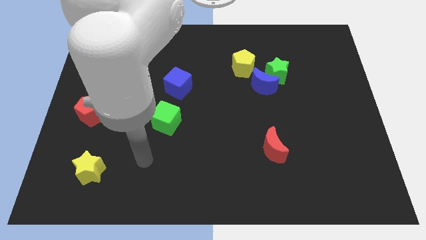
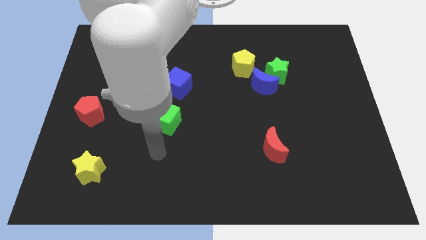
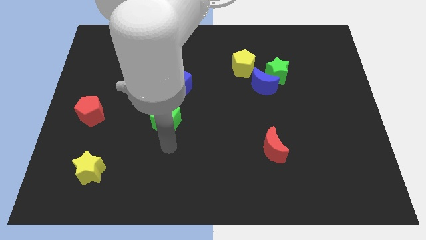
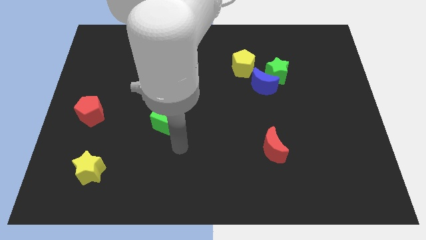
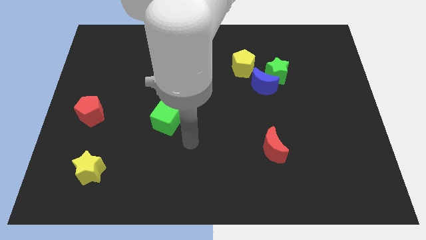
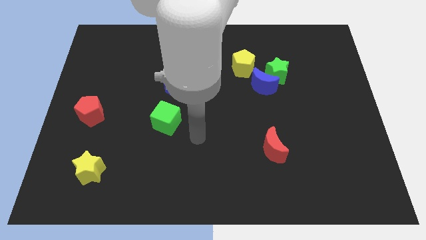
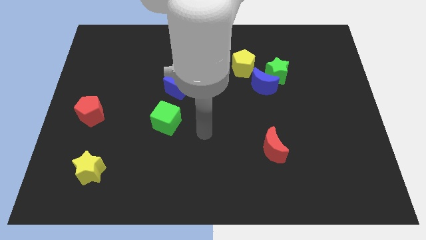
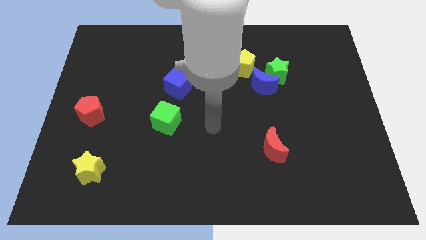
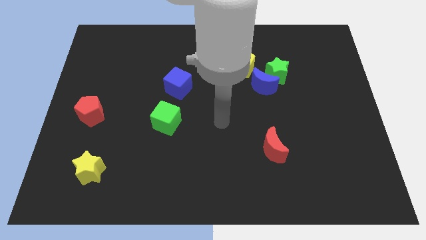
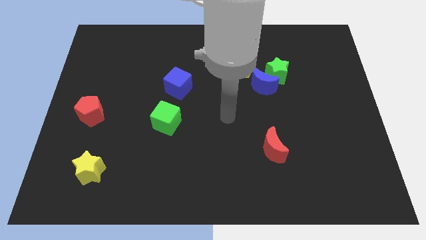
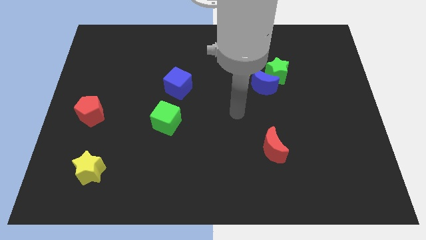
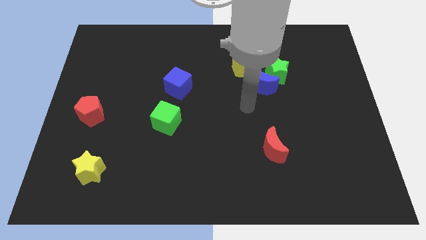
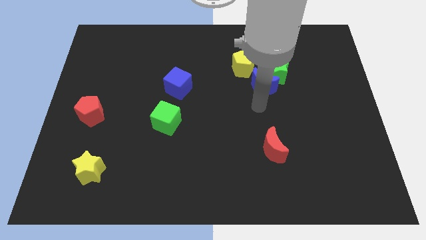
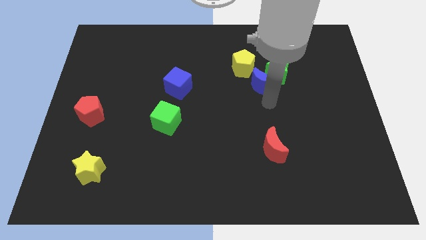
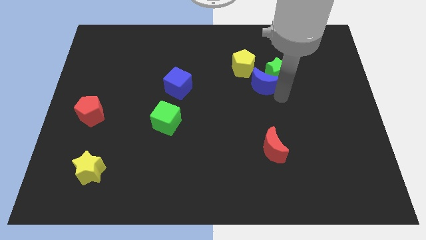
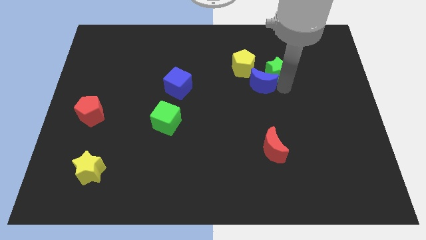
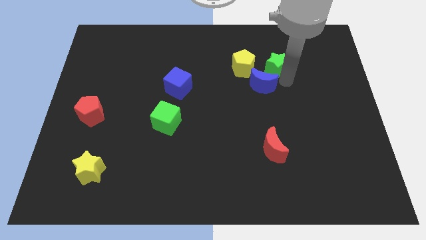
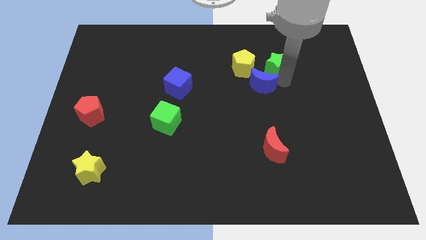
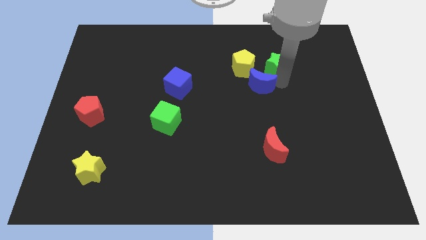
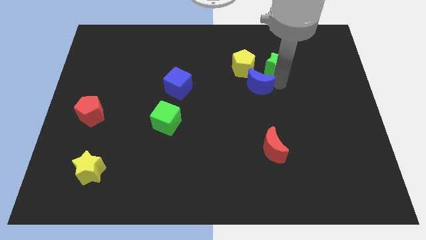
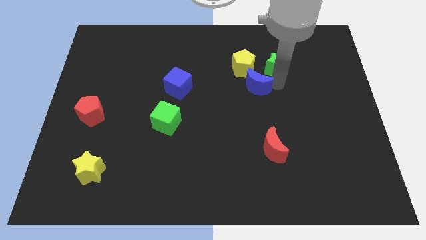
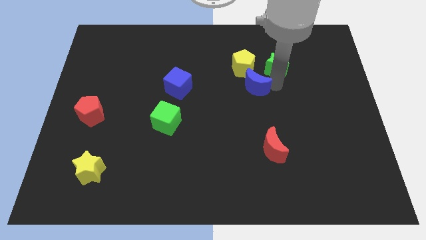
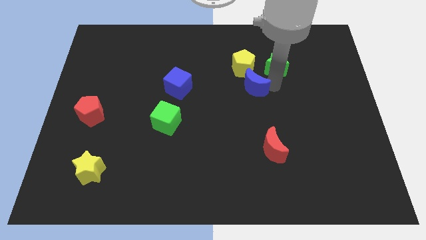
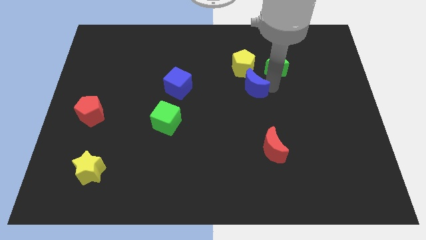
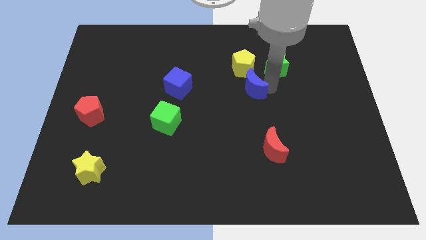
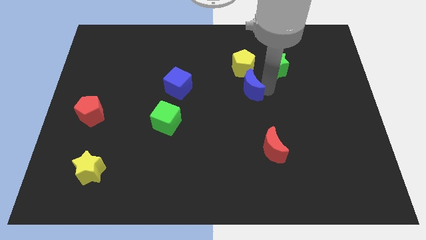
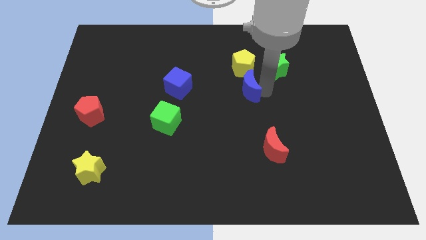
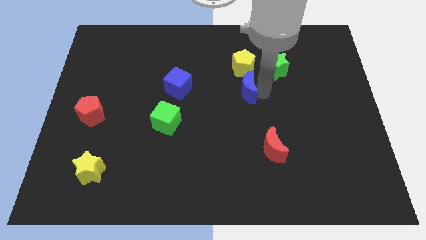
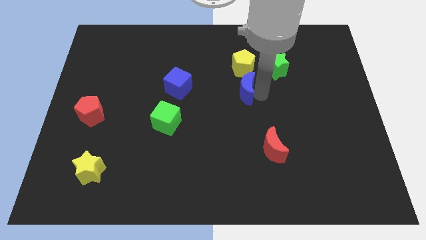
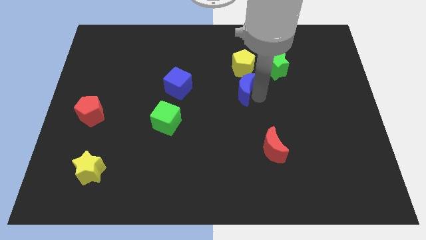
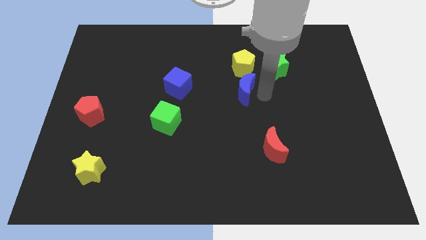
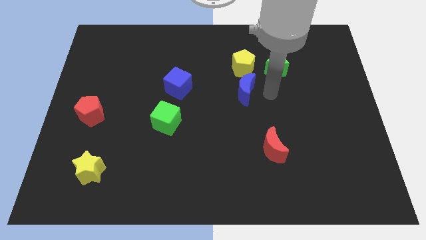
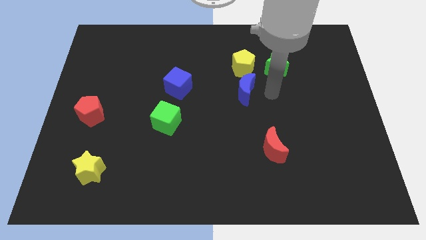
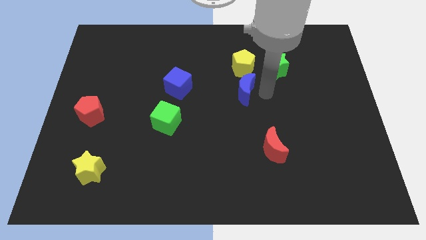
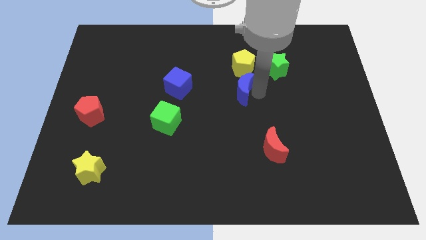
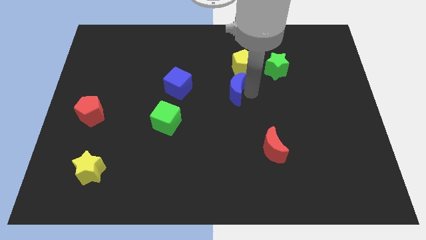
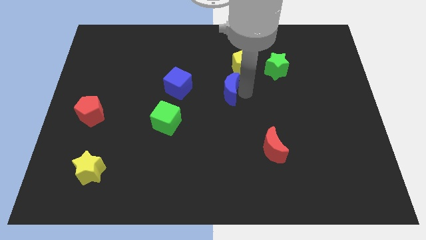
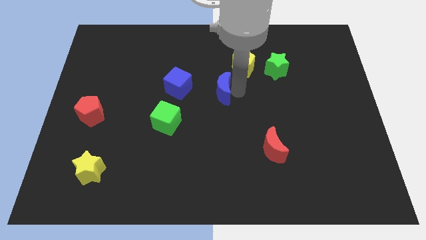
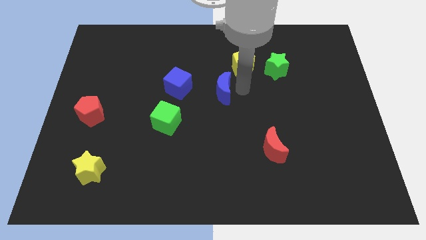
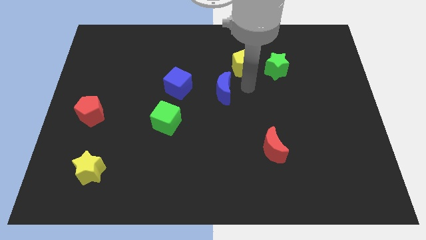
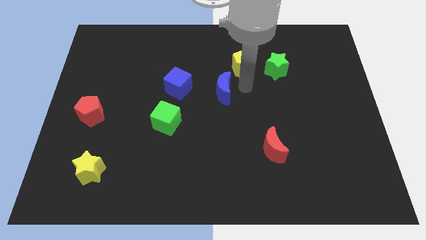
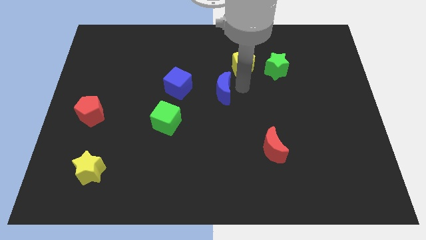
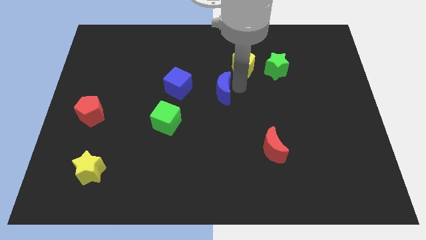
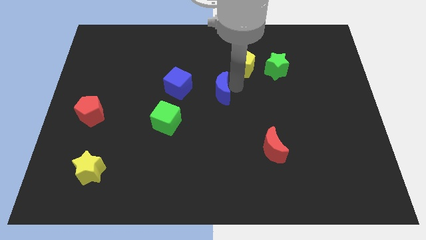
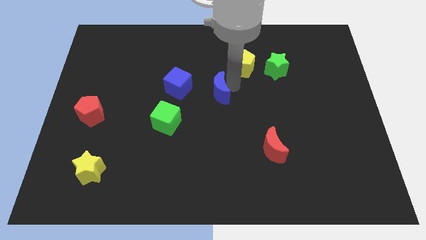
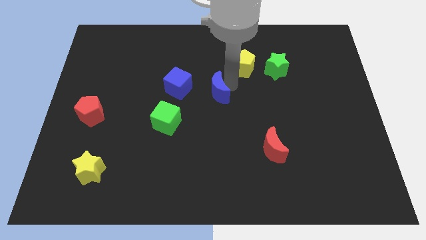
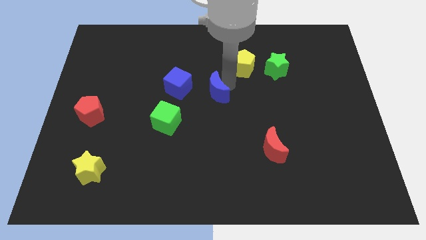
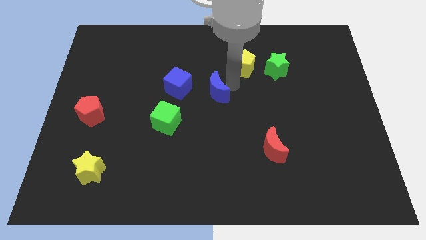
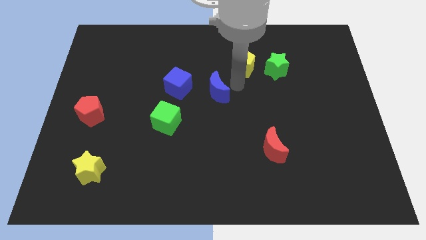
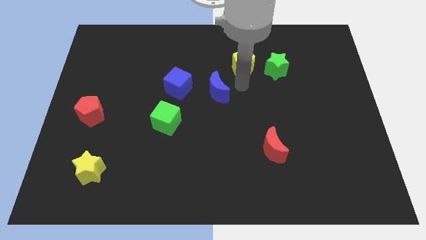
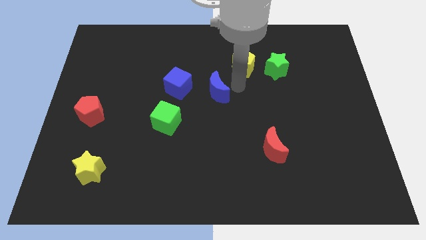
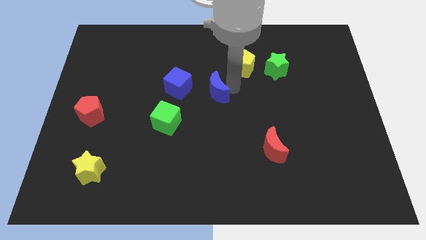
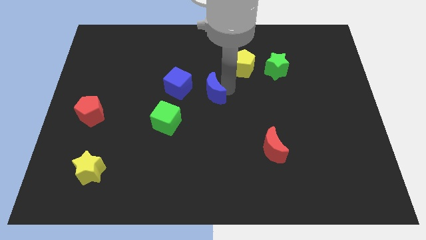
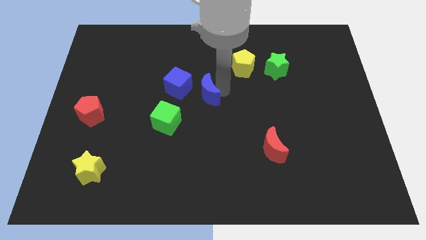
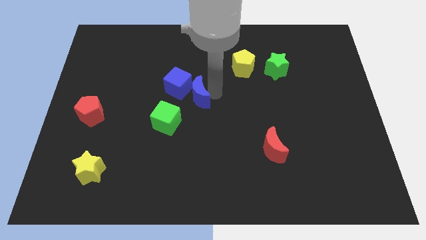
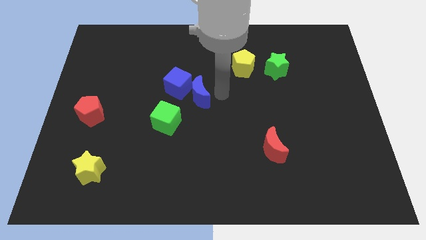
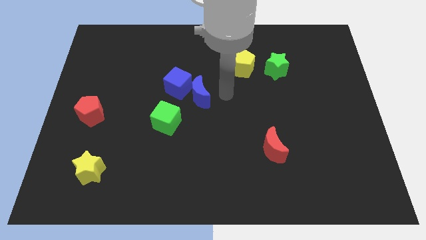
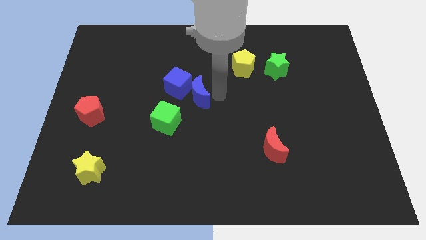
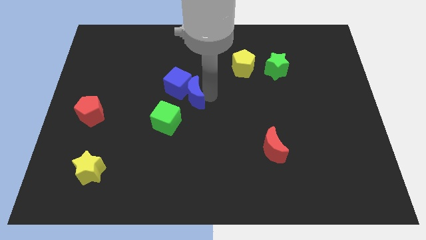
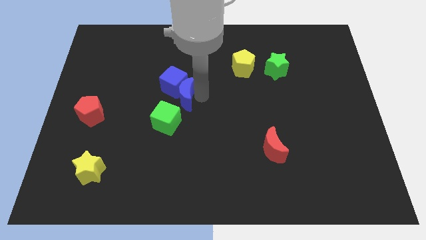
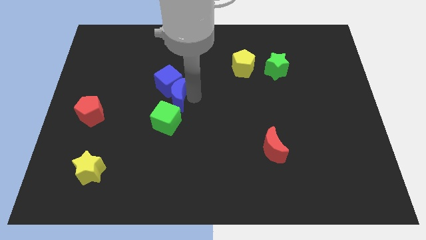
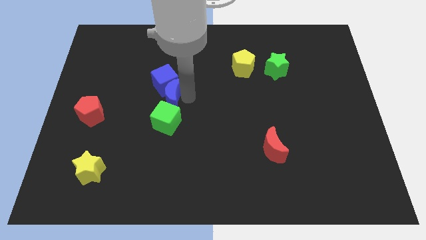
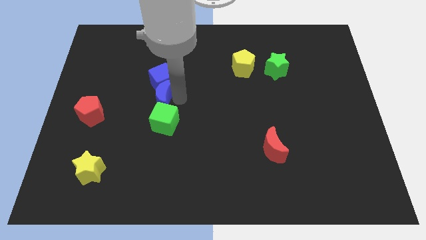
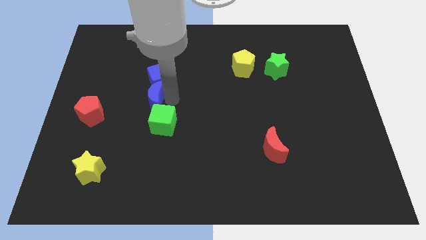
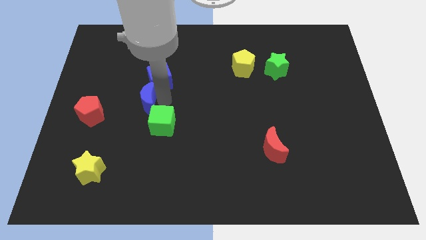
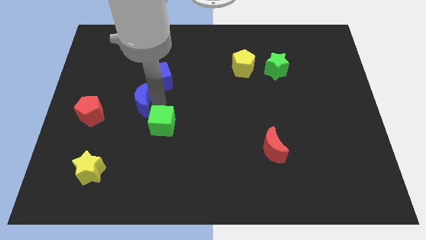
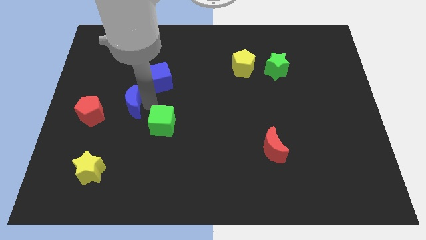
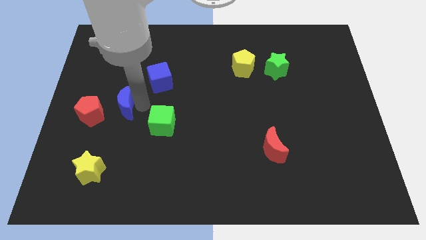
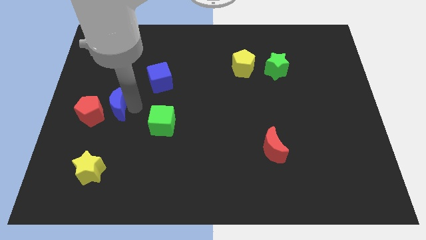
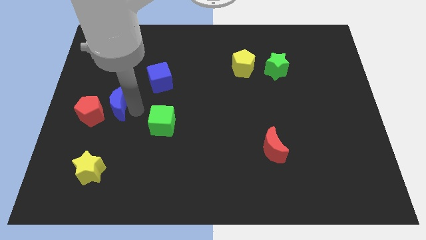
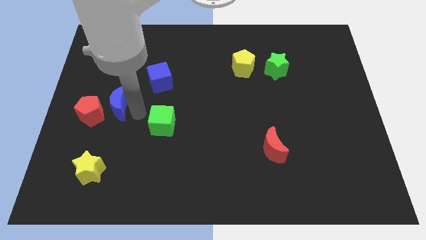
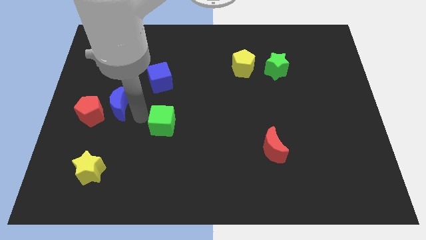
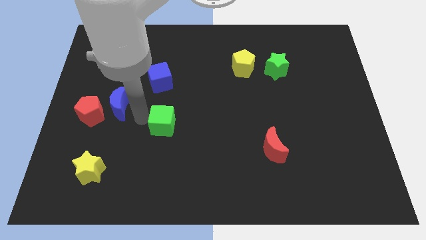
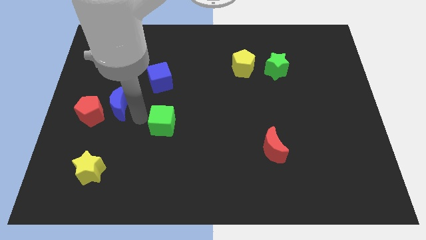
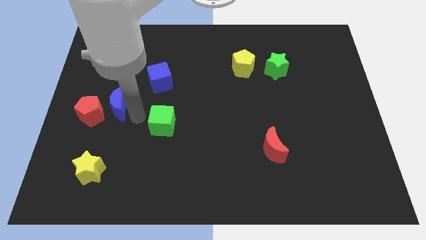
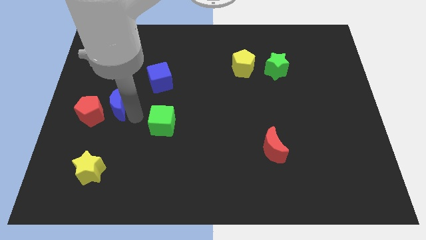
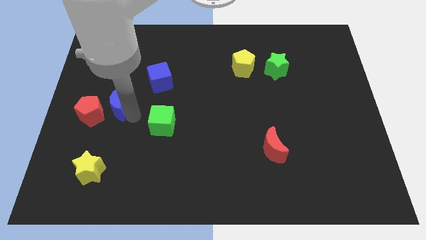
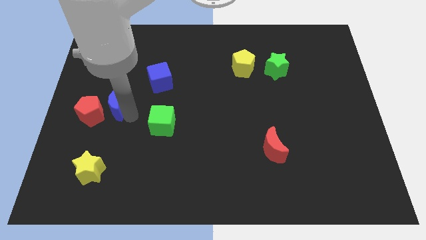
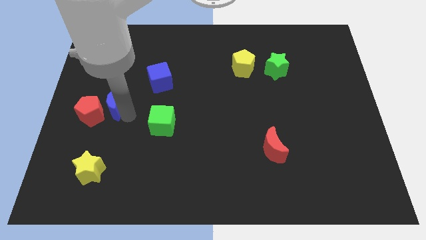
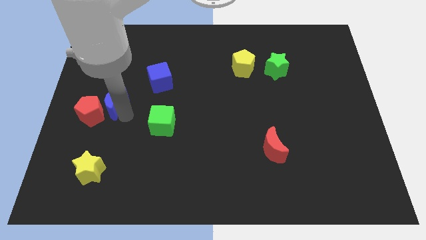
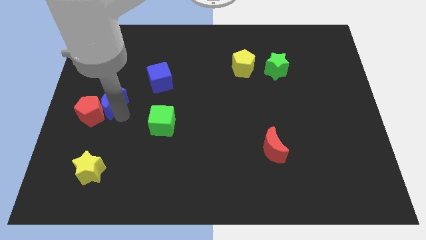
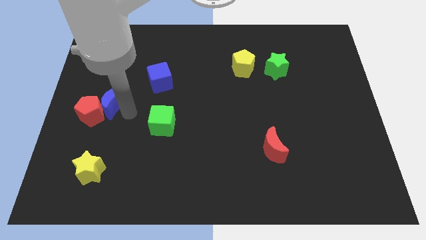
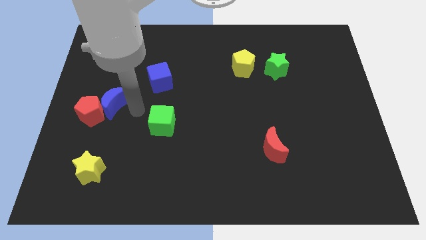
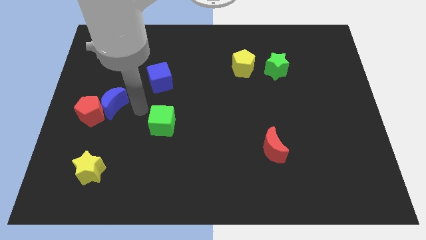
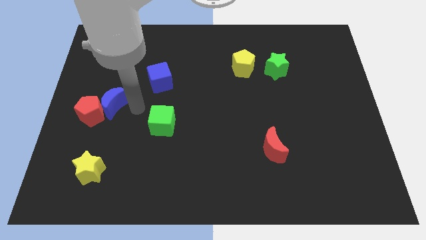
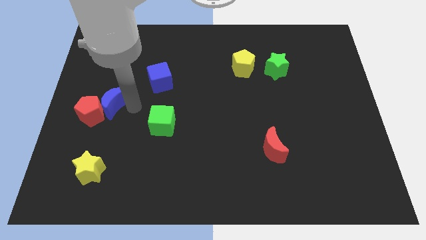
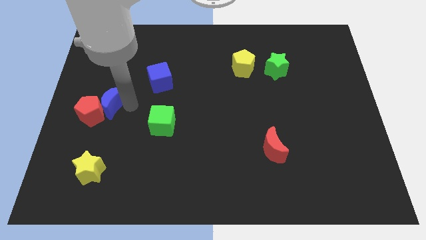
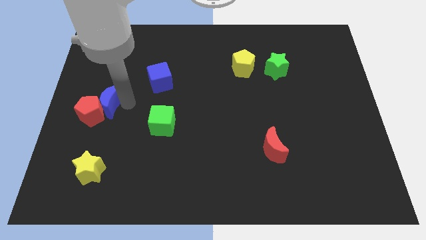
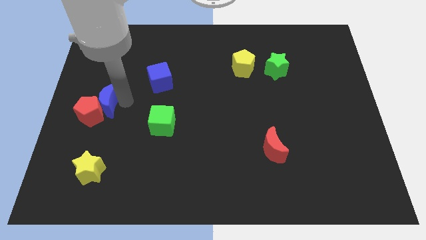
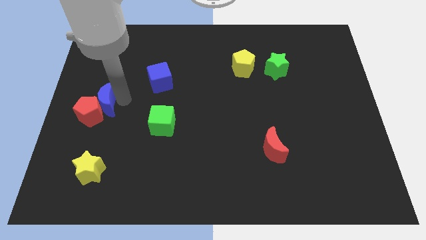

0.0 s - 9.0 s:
slide the blue moon to the left side of the board
